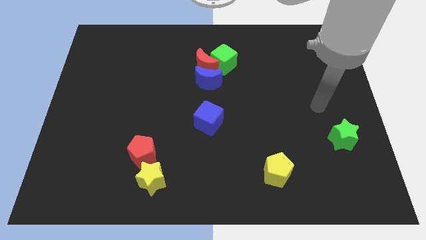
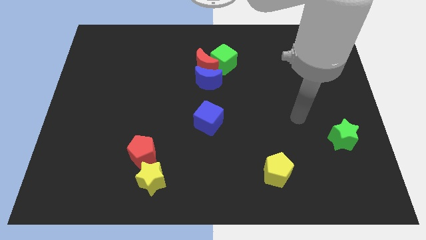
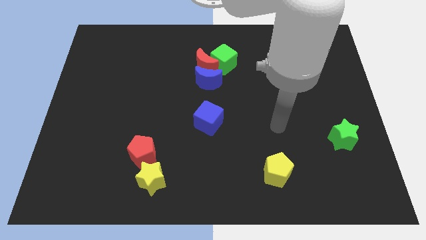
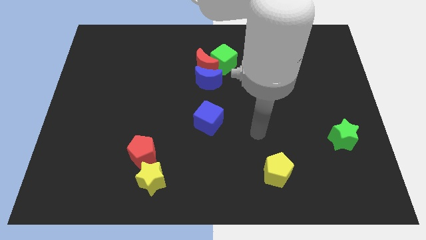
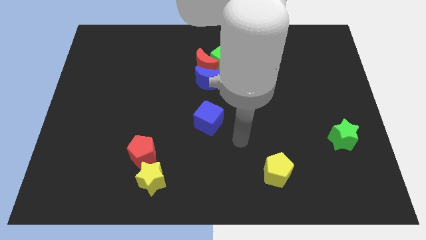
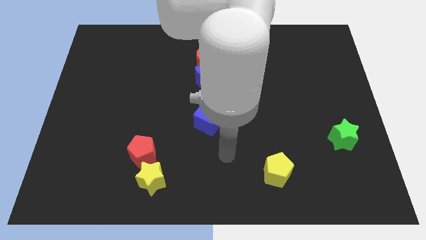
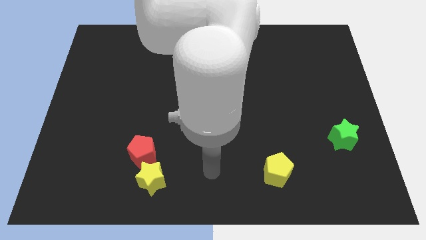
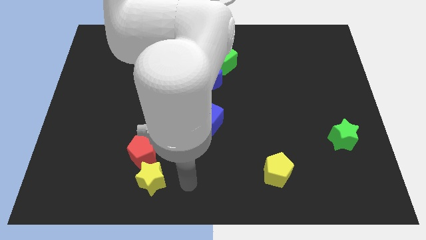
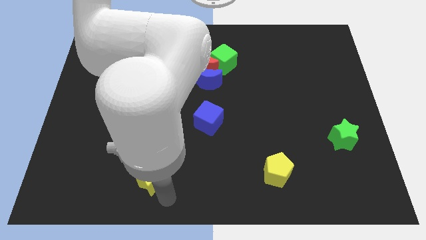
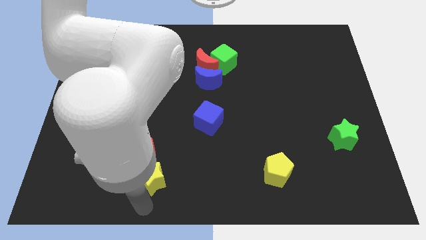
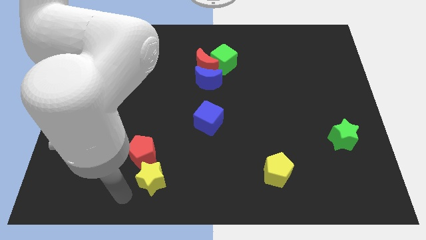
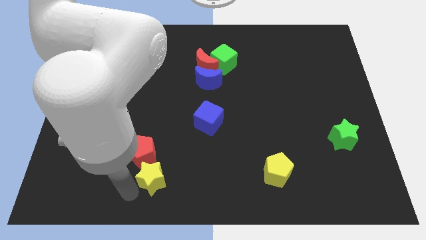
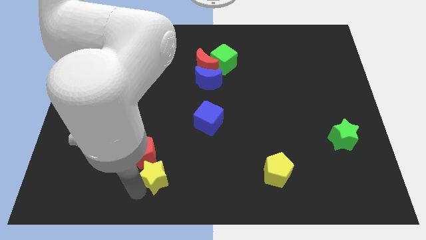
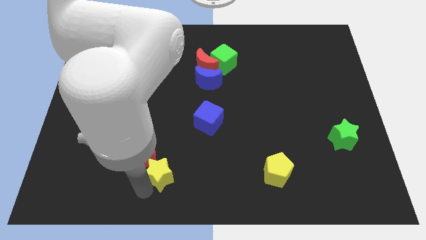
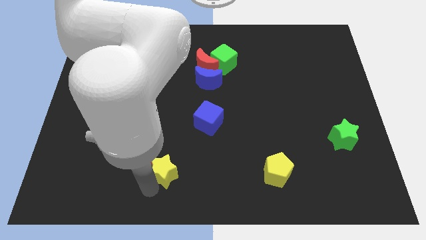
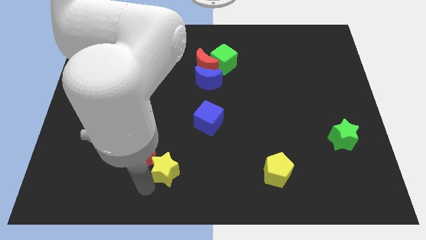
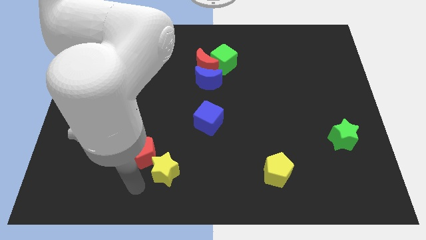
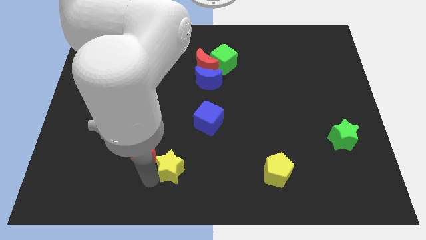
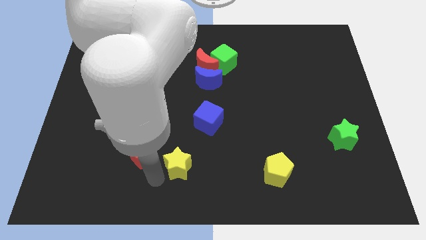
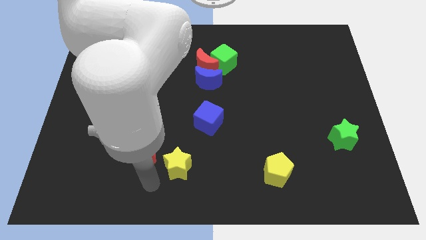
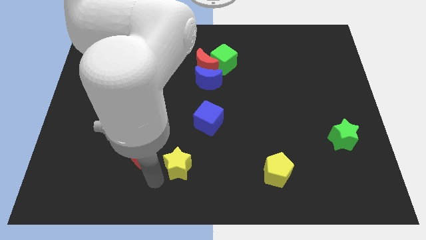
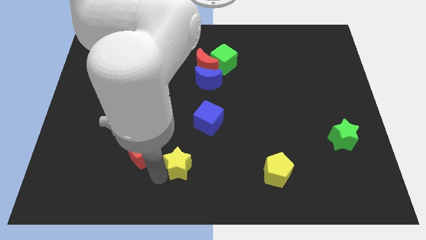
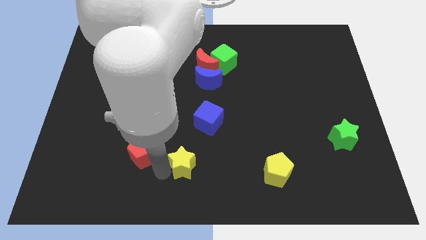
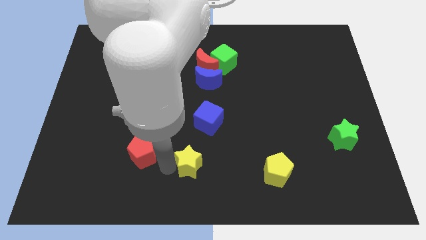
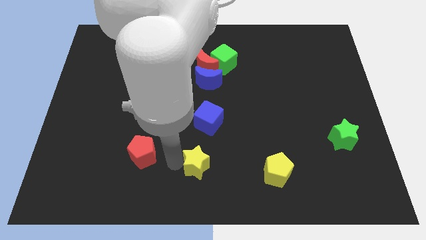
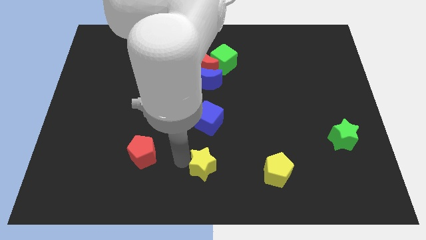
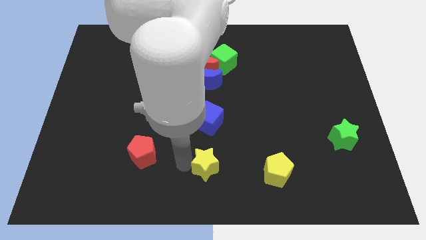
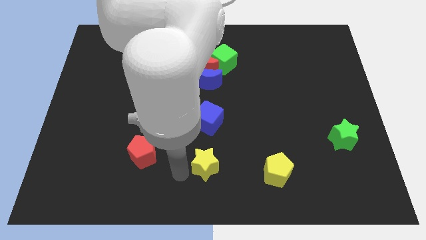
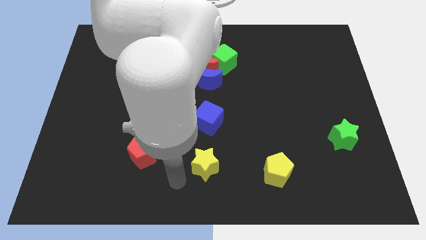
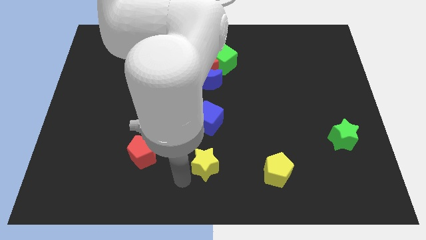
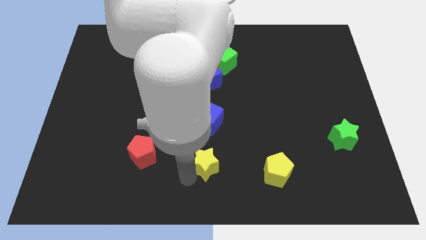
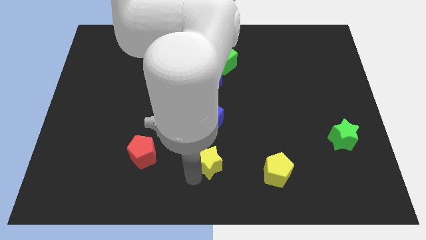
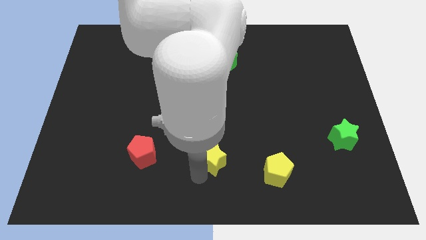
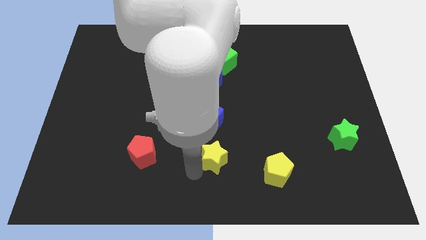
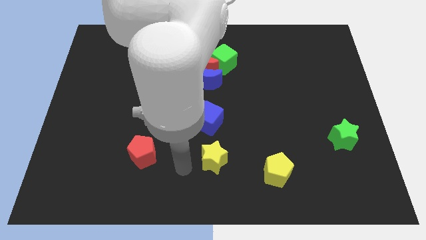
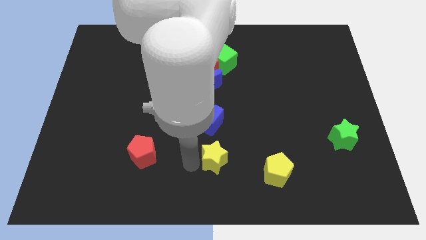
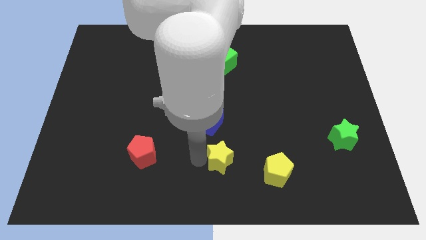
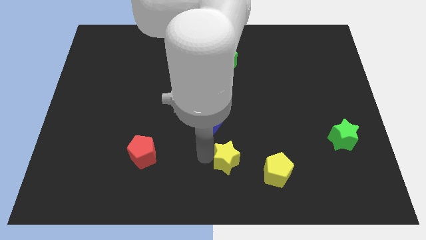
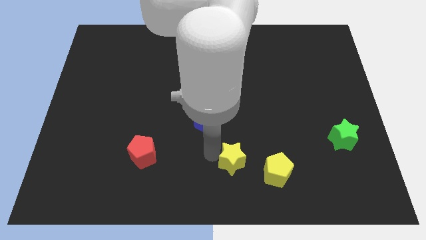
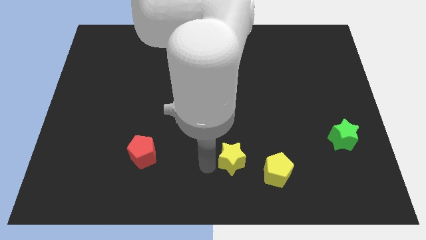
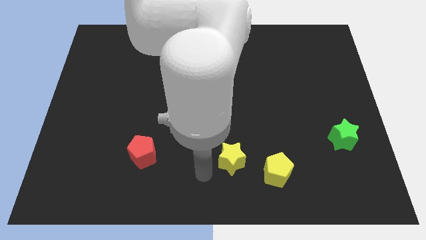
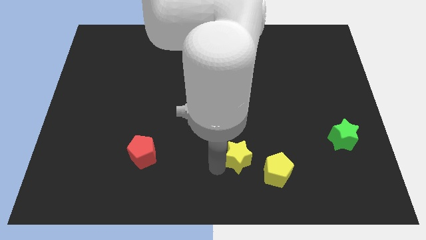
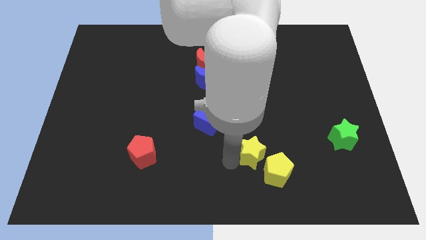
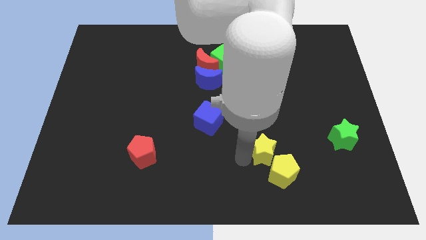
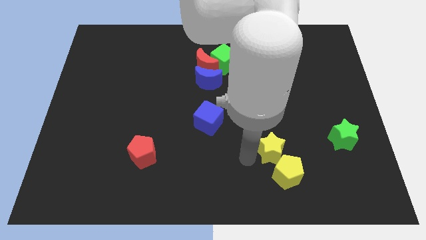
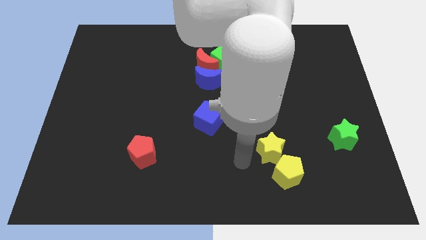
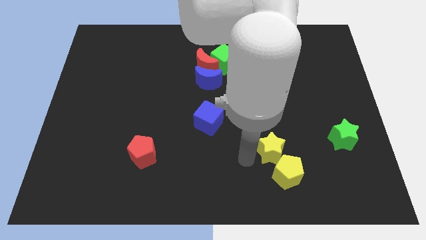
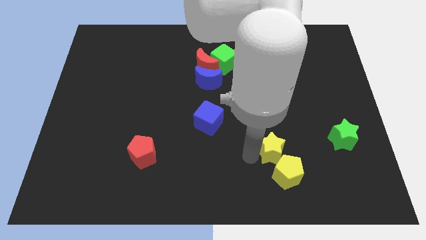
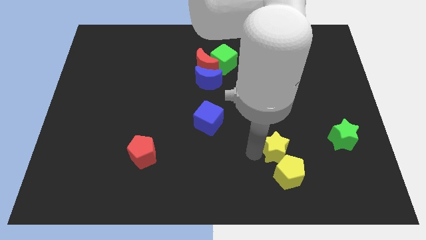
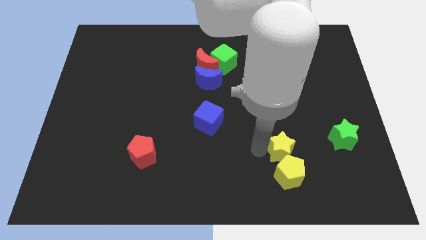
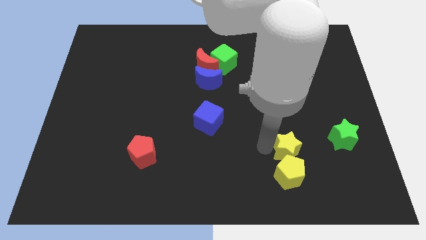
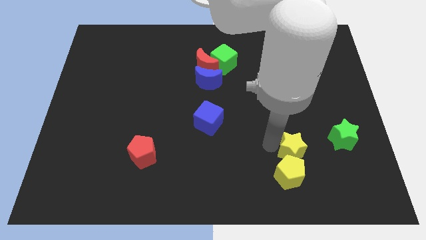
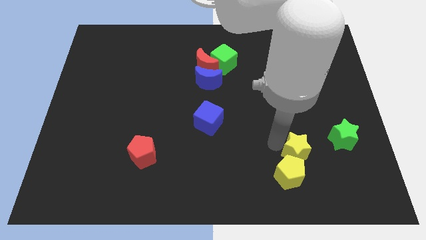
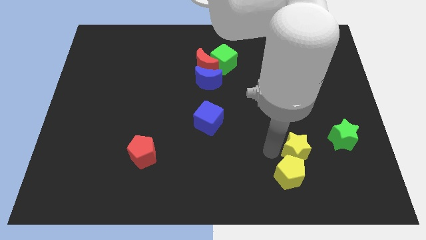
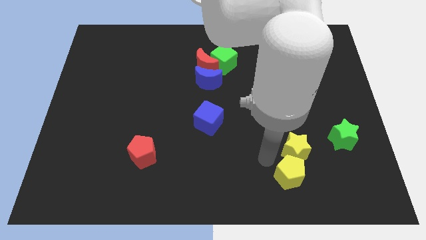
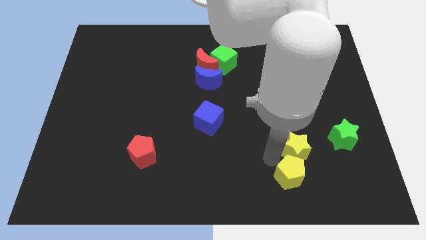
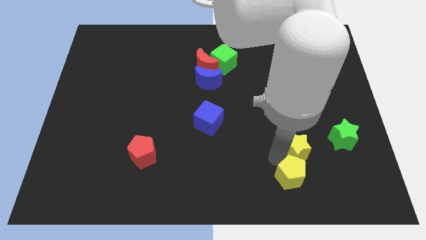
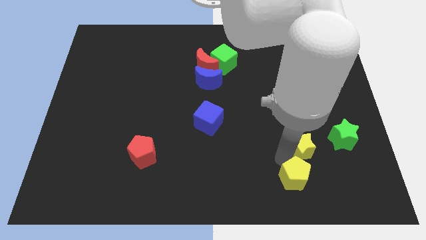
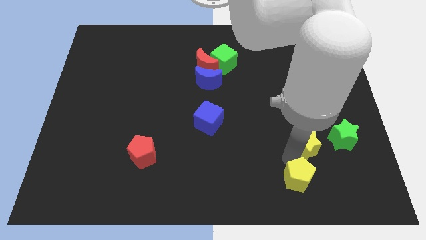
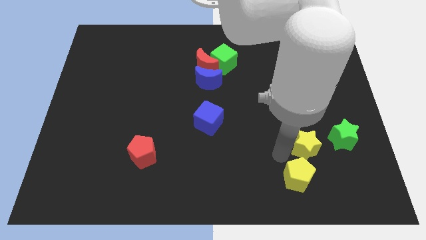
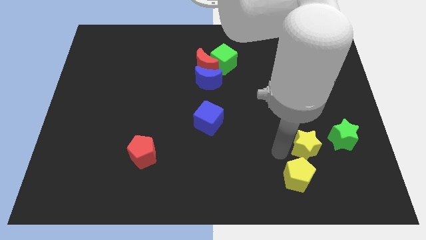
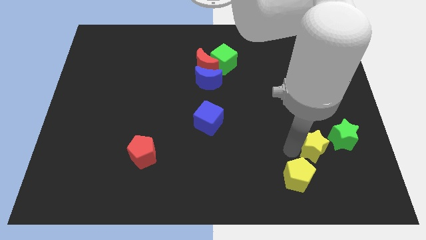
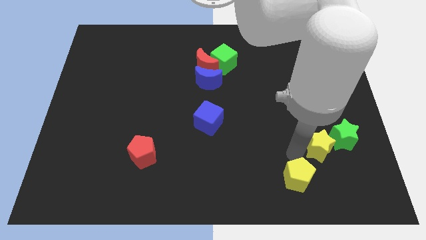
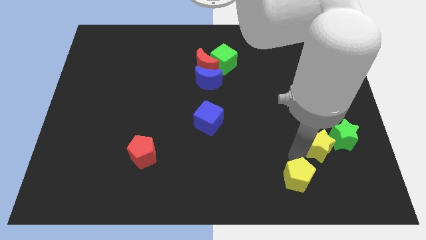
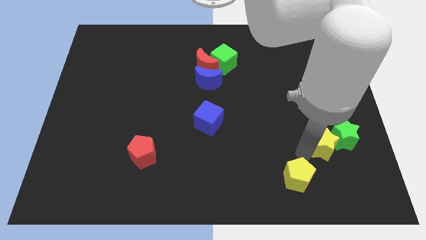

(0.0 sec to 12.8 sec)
put the yellow star towards the green star

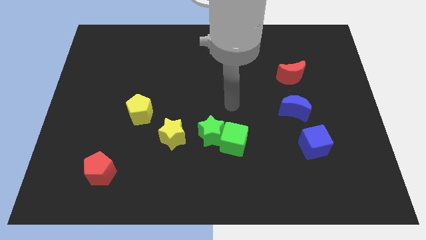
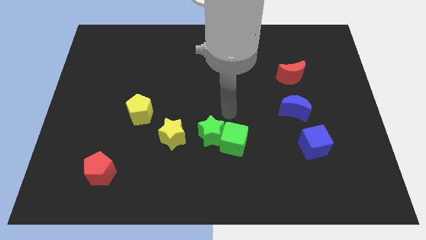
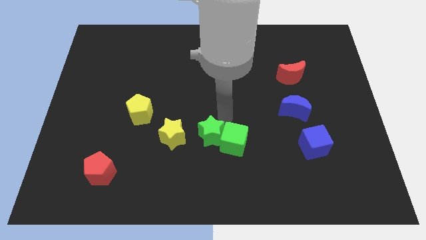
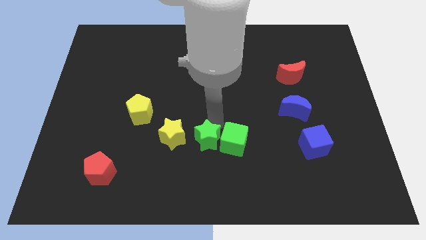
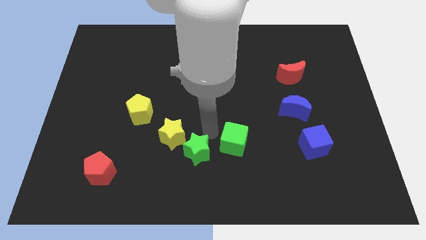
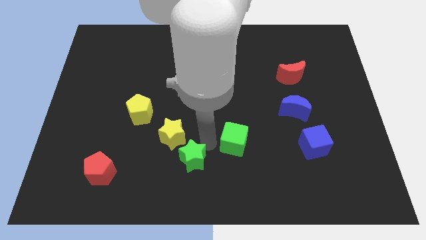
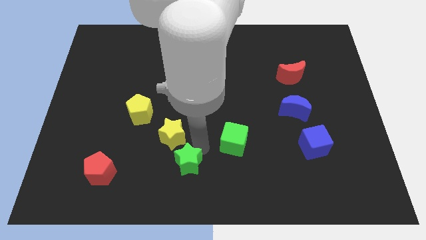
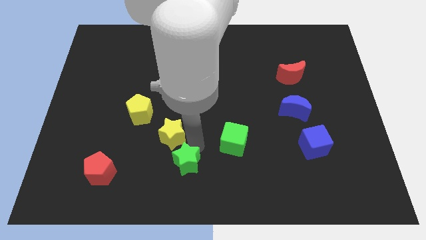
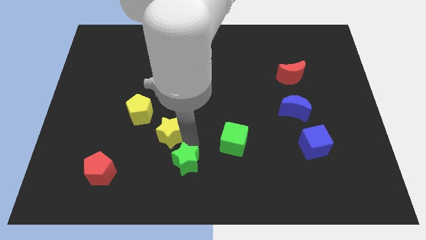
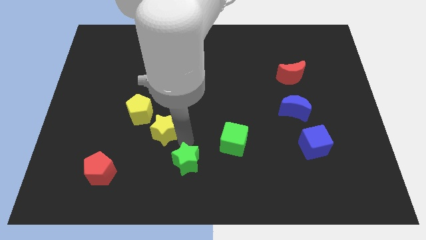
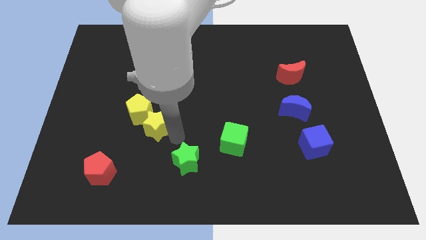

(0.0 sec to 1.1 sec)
push the yellow star next to the yellow pentagon
